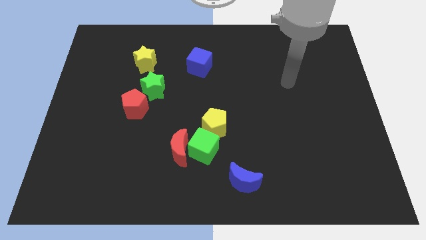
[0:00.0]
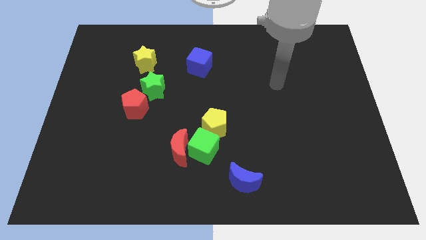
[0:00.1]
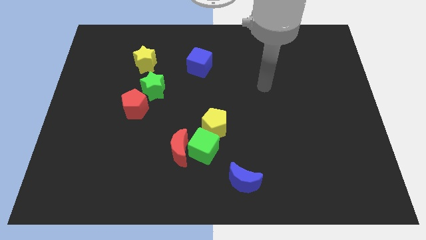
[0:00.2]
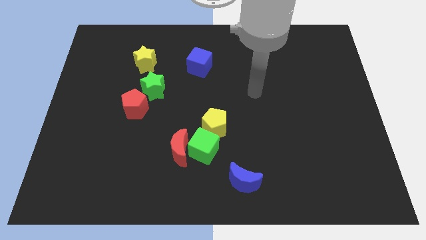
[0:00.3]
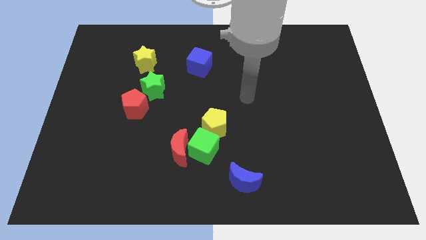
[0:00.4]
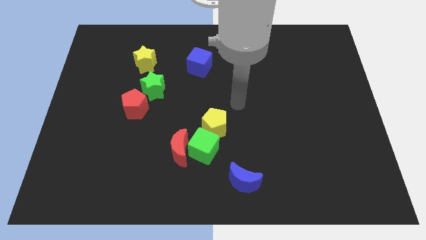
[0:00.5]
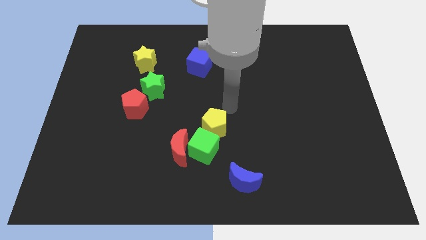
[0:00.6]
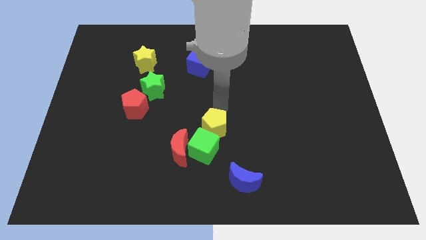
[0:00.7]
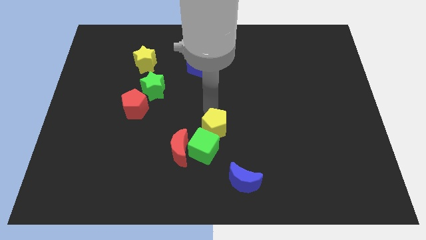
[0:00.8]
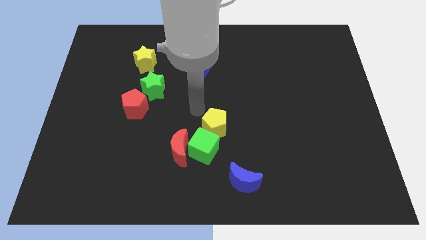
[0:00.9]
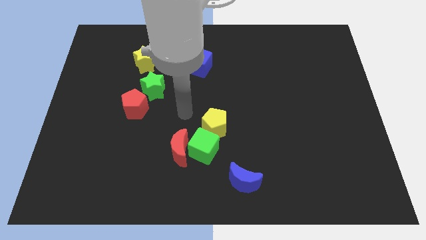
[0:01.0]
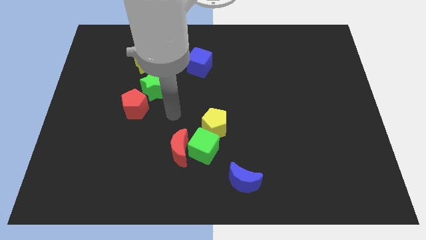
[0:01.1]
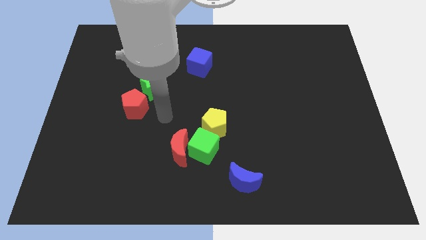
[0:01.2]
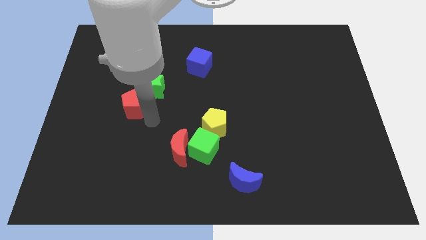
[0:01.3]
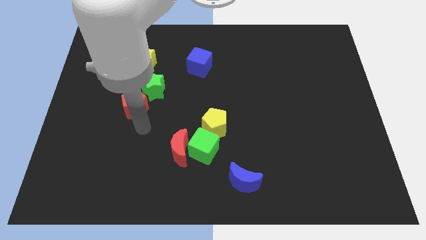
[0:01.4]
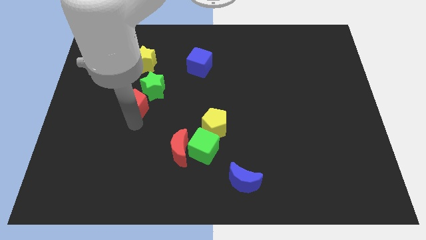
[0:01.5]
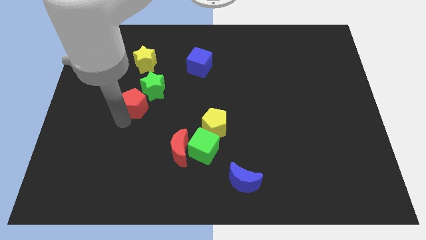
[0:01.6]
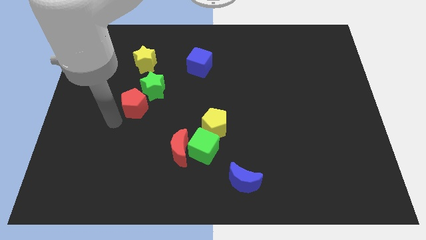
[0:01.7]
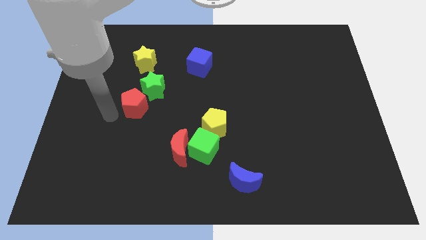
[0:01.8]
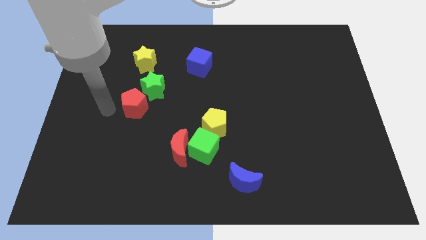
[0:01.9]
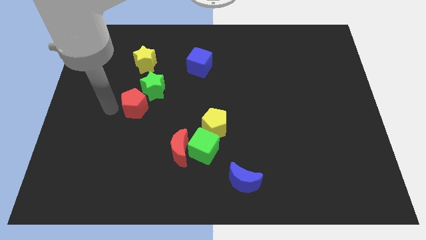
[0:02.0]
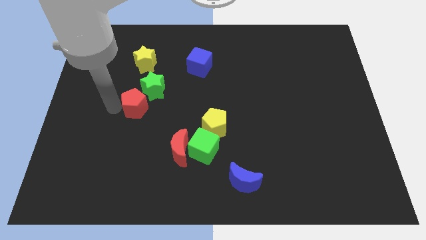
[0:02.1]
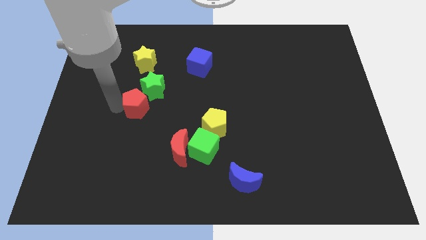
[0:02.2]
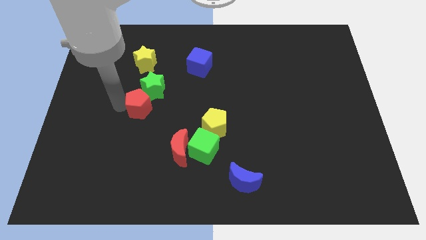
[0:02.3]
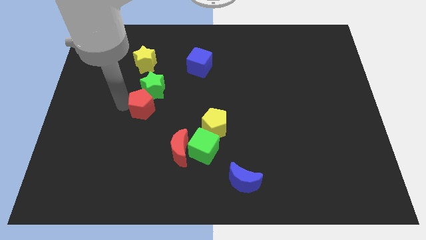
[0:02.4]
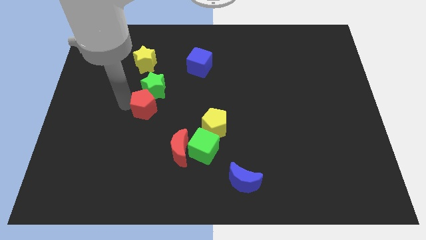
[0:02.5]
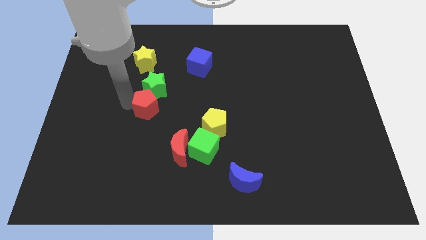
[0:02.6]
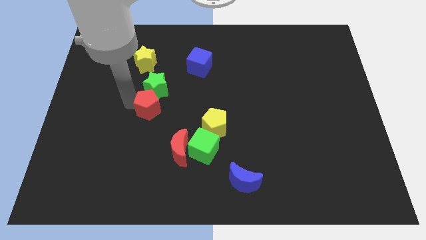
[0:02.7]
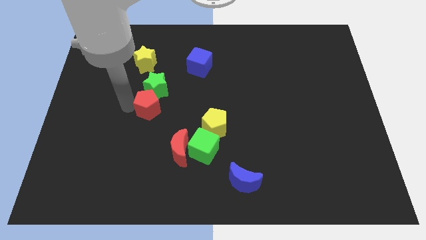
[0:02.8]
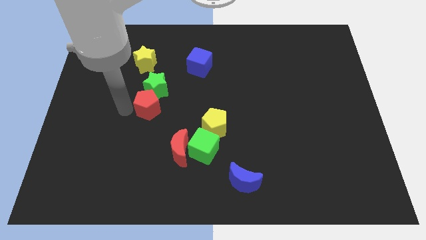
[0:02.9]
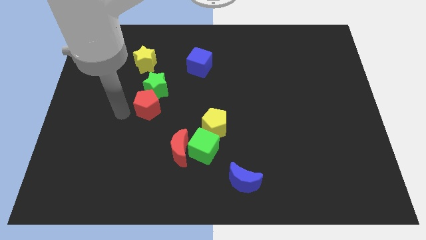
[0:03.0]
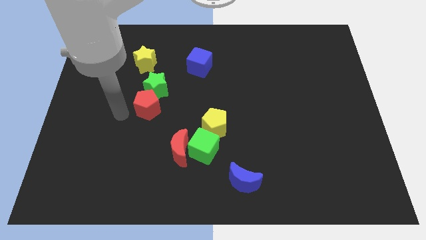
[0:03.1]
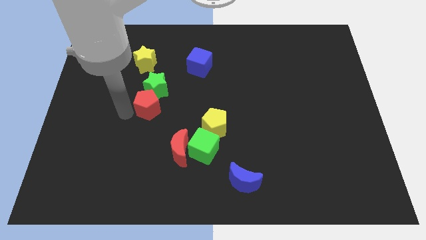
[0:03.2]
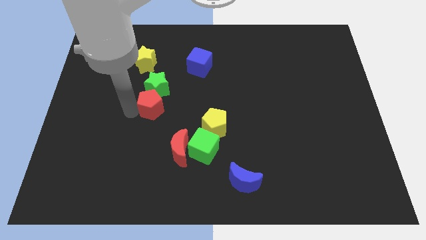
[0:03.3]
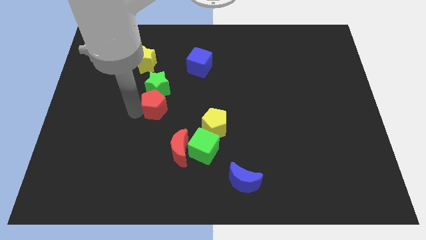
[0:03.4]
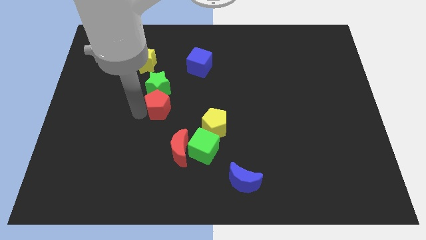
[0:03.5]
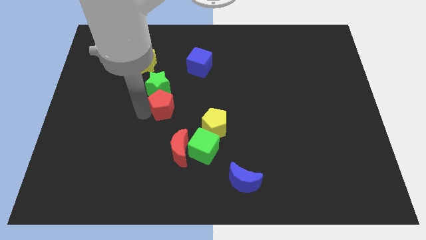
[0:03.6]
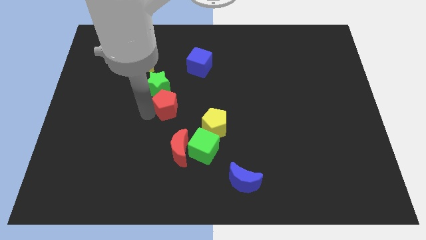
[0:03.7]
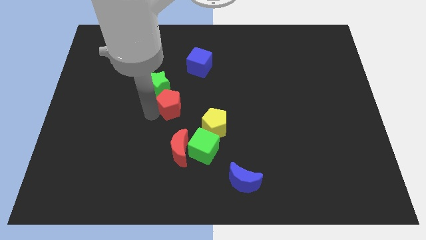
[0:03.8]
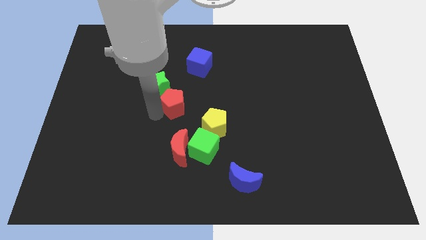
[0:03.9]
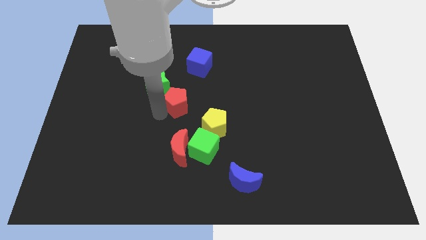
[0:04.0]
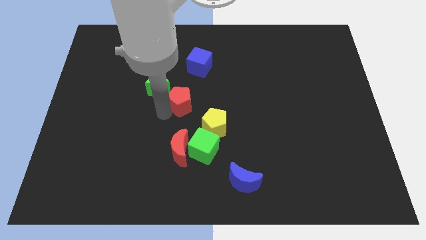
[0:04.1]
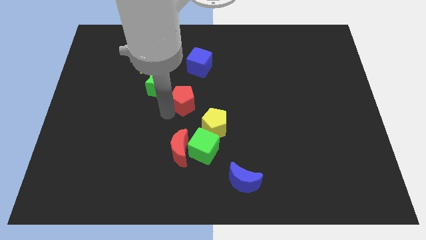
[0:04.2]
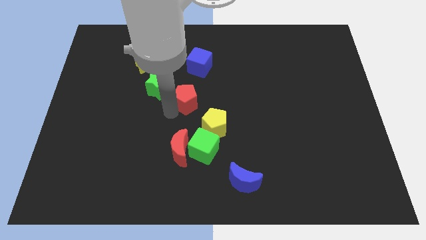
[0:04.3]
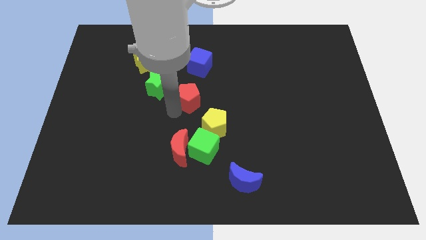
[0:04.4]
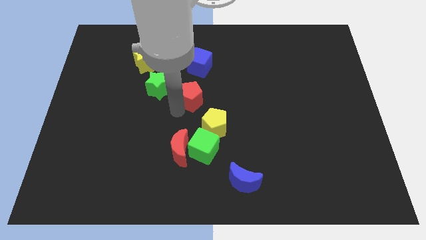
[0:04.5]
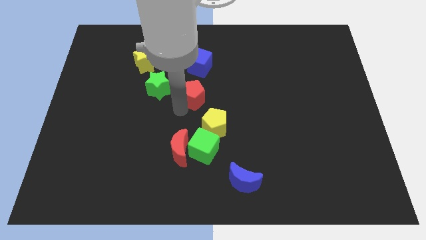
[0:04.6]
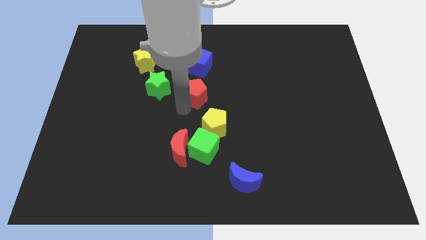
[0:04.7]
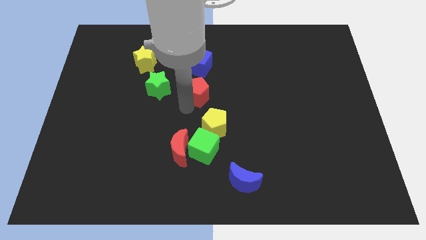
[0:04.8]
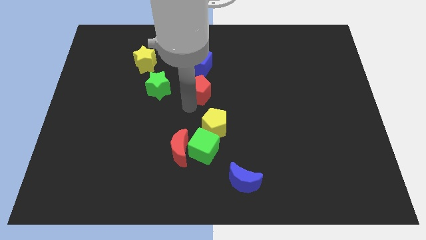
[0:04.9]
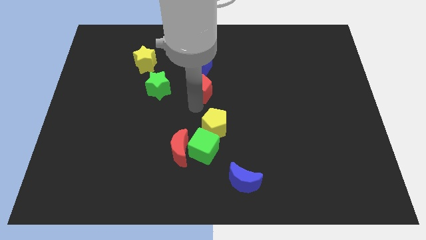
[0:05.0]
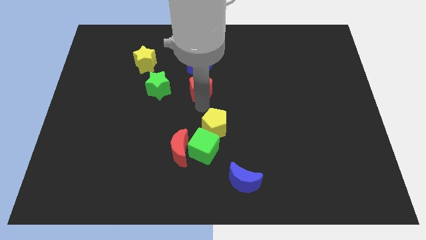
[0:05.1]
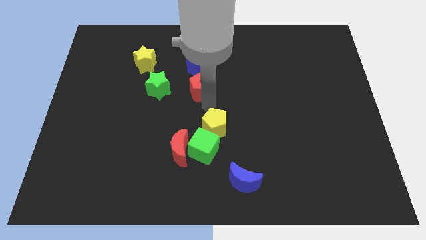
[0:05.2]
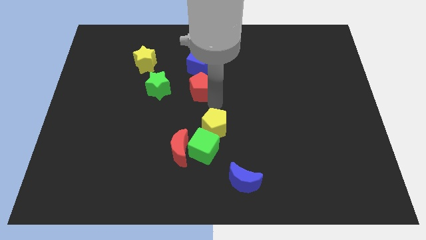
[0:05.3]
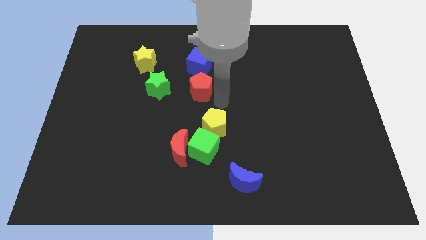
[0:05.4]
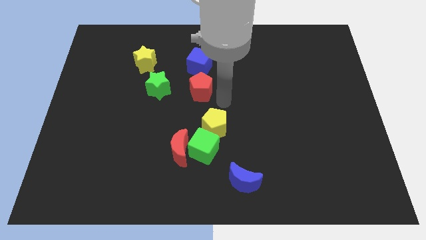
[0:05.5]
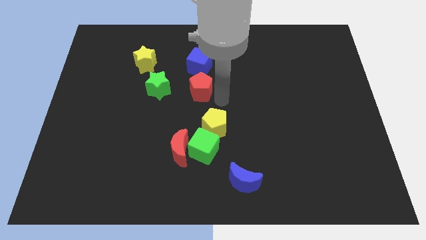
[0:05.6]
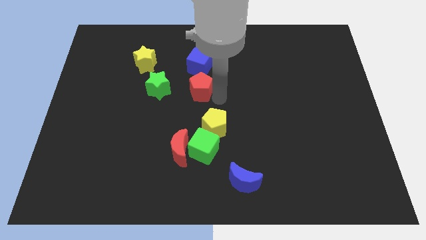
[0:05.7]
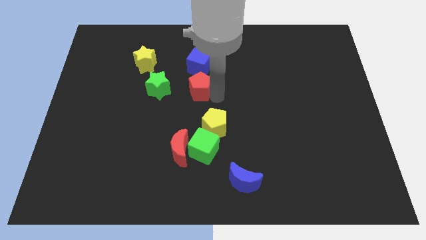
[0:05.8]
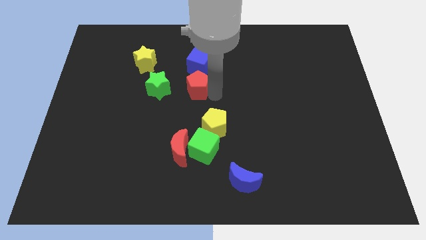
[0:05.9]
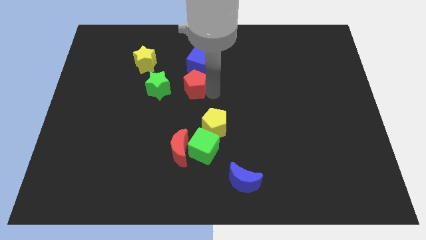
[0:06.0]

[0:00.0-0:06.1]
slide the red pentagon diagonally down and to the left of the blue cube
